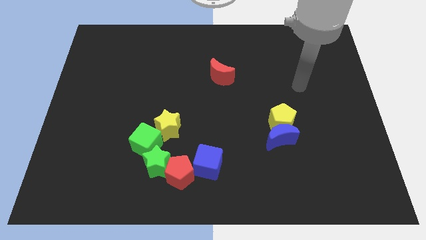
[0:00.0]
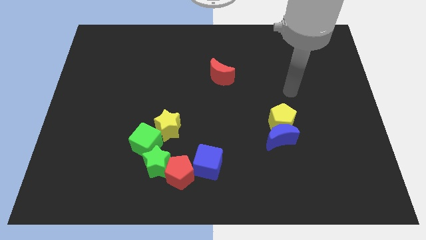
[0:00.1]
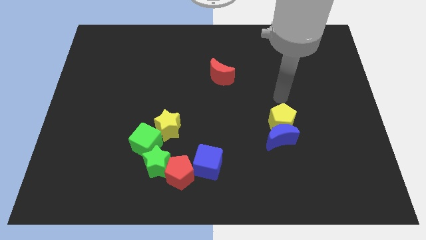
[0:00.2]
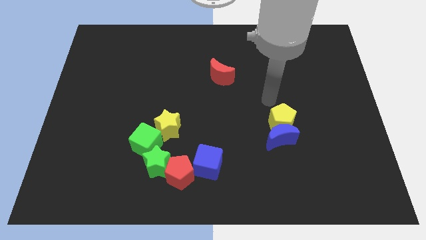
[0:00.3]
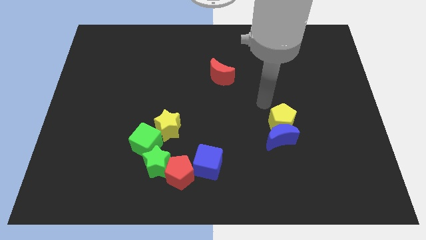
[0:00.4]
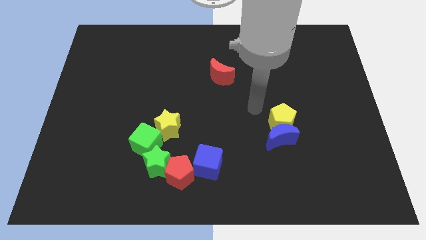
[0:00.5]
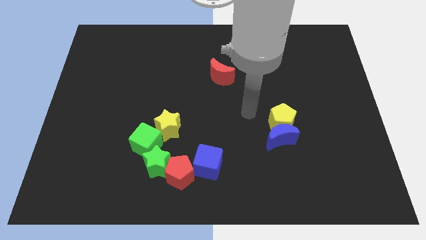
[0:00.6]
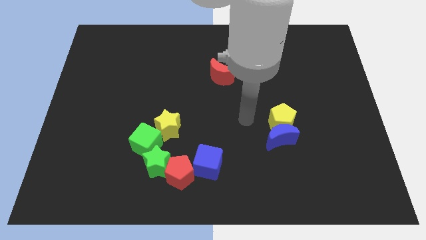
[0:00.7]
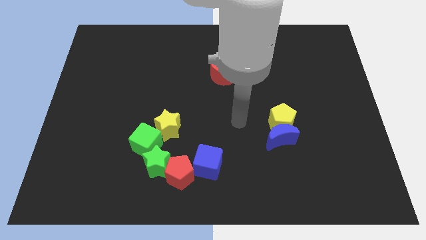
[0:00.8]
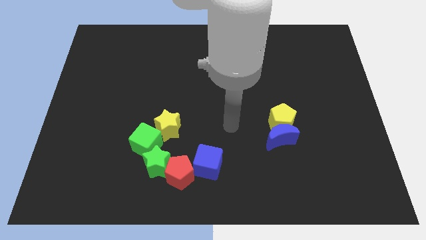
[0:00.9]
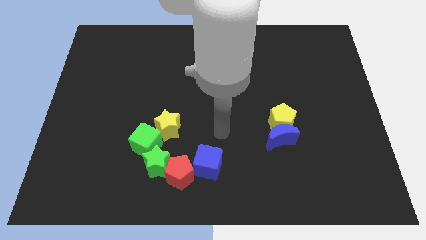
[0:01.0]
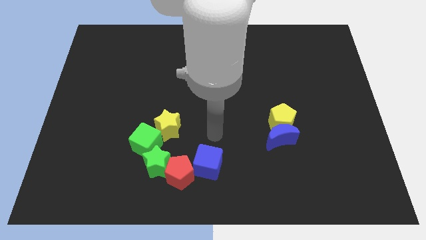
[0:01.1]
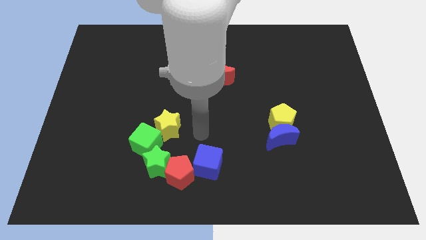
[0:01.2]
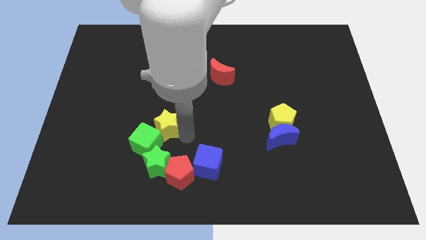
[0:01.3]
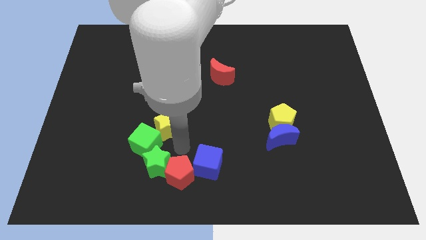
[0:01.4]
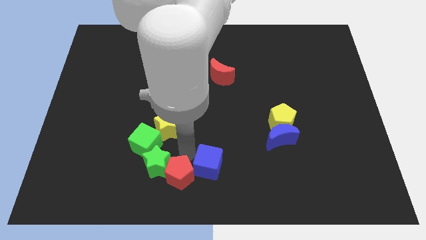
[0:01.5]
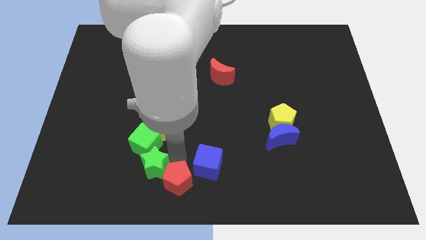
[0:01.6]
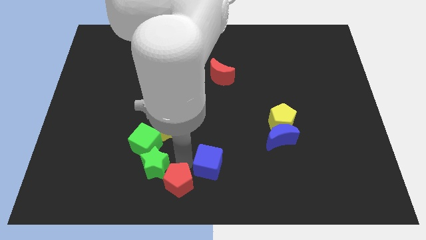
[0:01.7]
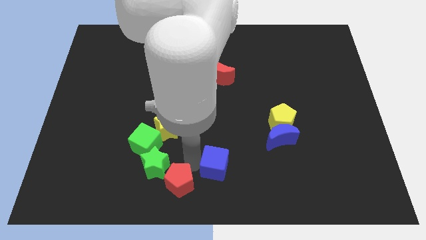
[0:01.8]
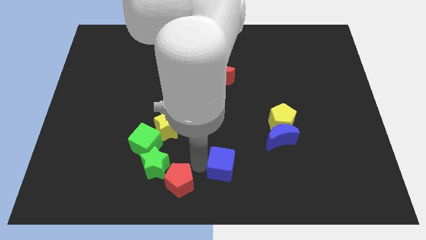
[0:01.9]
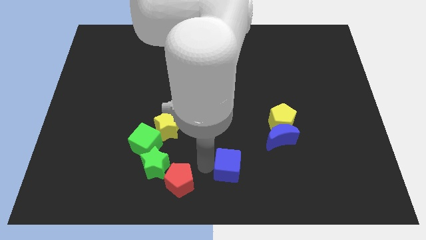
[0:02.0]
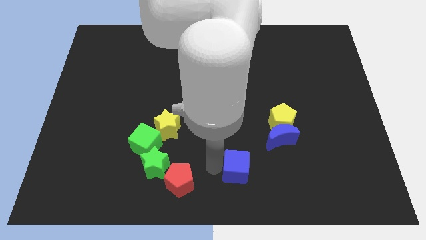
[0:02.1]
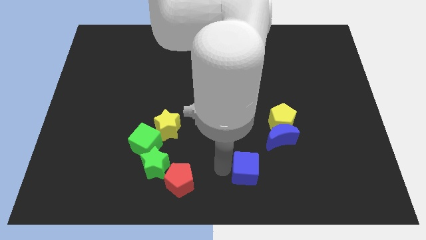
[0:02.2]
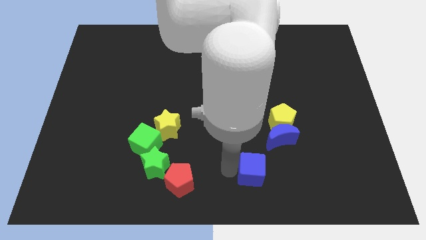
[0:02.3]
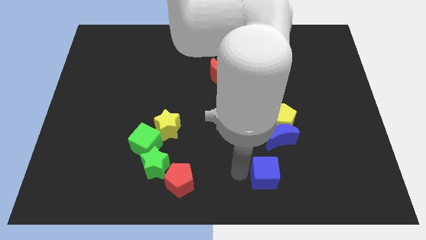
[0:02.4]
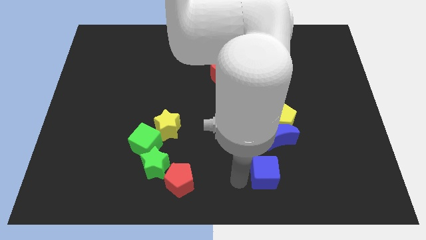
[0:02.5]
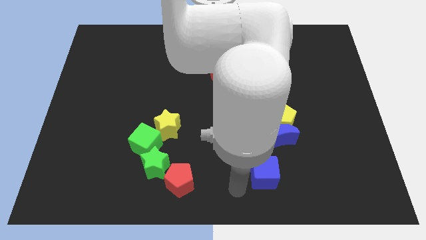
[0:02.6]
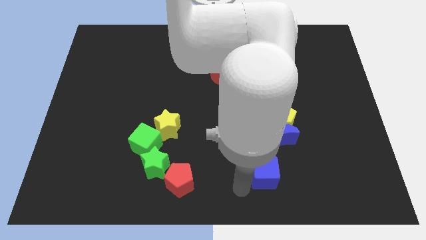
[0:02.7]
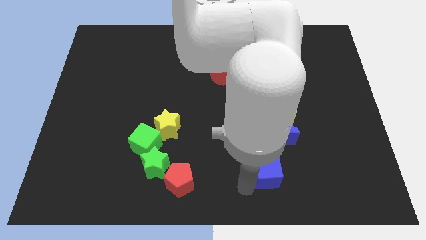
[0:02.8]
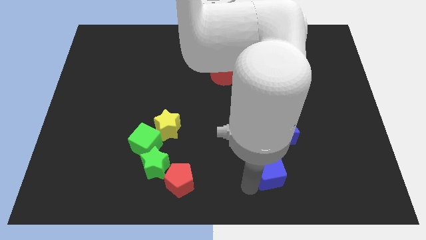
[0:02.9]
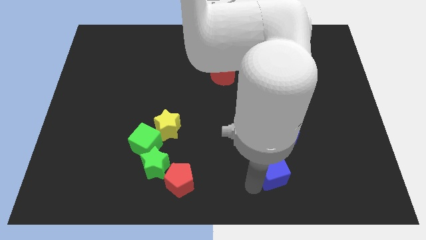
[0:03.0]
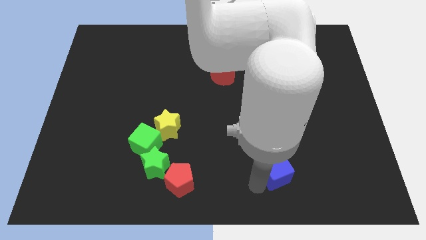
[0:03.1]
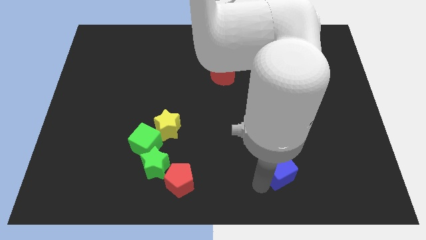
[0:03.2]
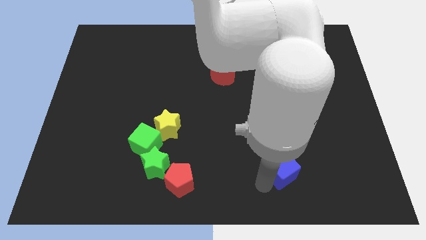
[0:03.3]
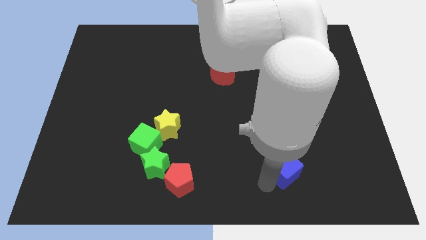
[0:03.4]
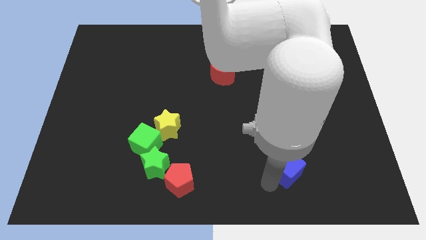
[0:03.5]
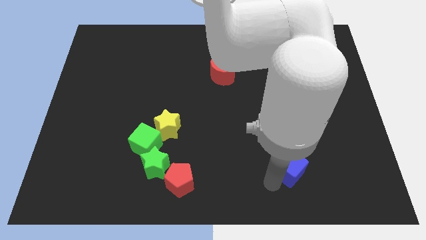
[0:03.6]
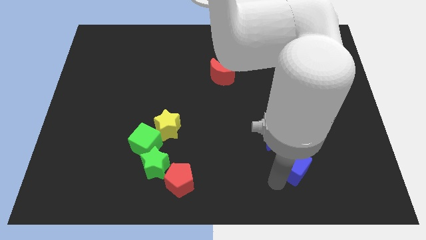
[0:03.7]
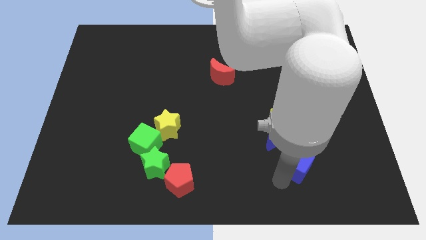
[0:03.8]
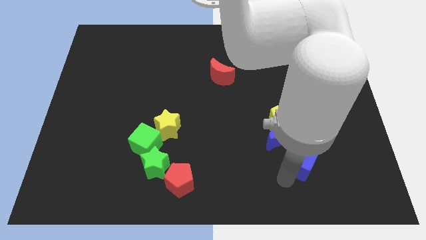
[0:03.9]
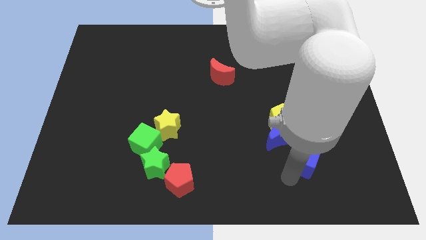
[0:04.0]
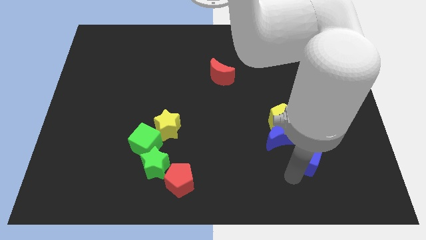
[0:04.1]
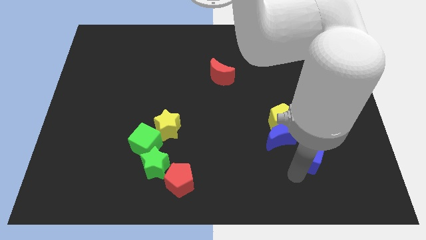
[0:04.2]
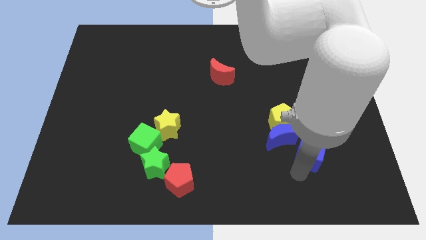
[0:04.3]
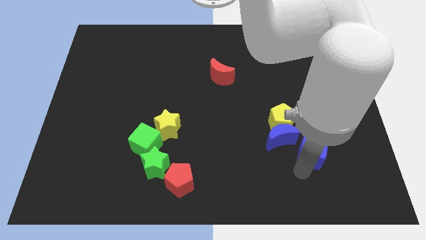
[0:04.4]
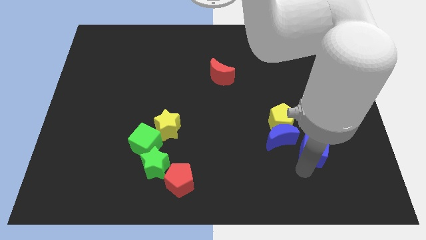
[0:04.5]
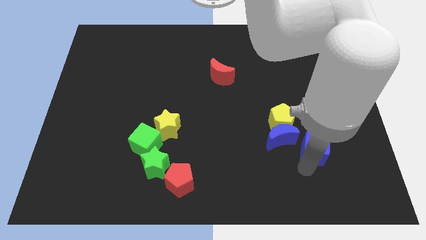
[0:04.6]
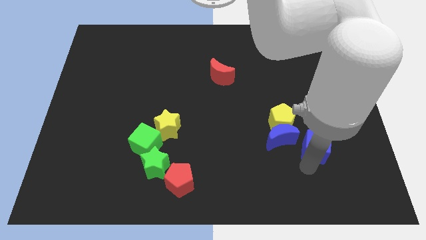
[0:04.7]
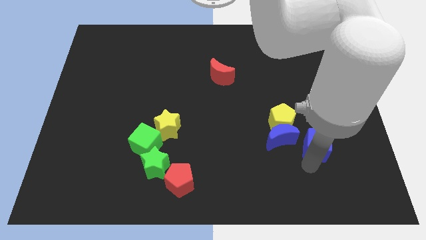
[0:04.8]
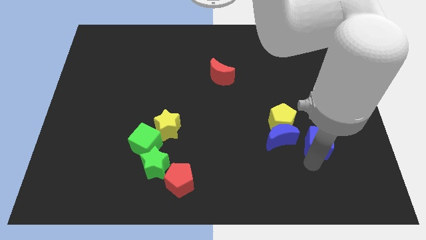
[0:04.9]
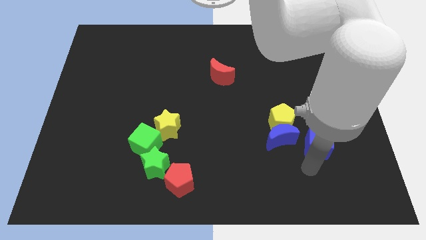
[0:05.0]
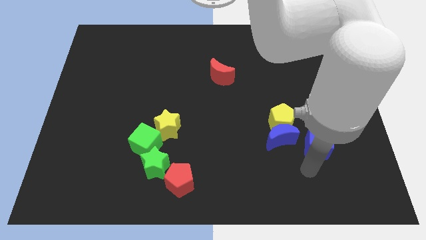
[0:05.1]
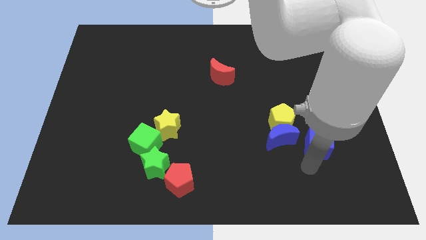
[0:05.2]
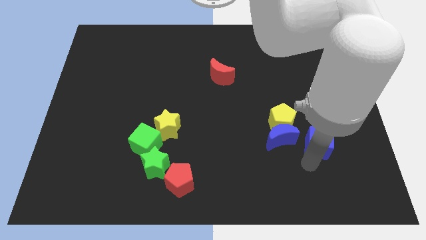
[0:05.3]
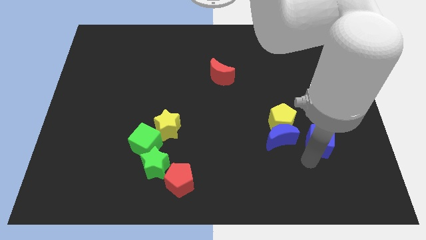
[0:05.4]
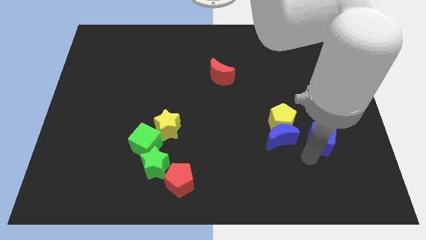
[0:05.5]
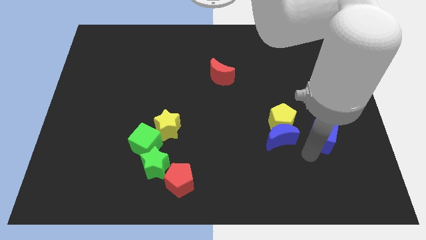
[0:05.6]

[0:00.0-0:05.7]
put the blue cube right of the yellow pentagon

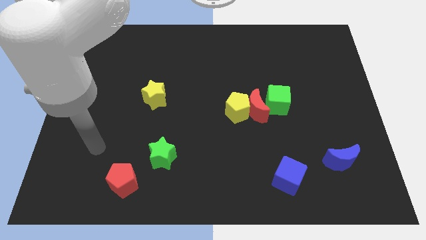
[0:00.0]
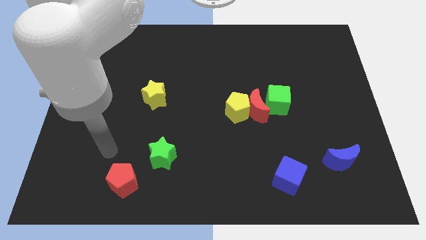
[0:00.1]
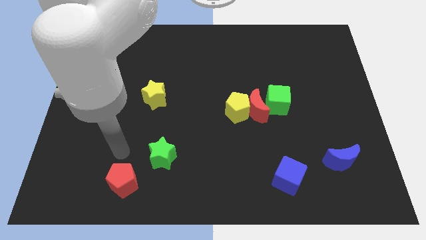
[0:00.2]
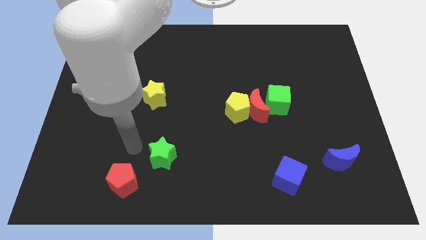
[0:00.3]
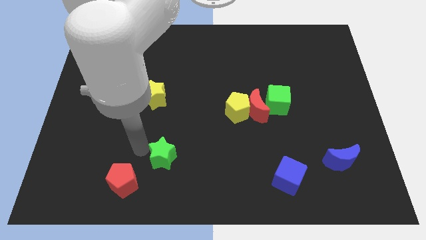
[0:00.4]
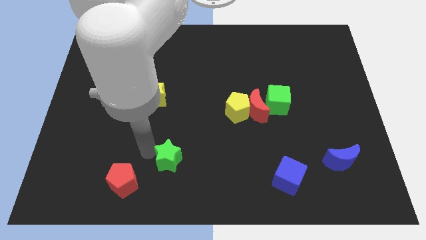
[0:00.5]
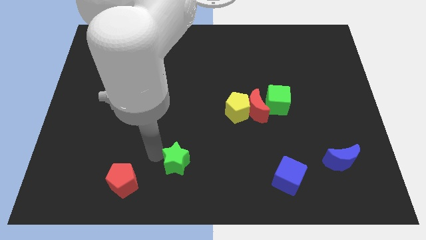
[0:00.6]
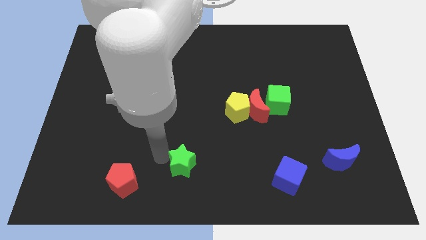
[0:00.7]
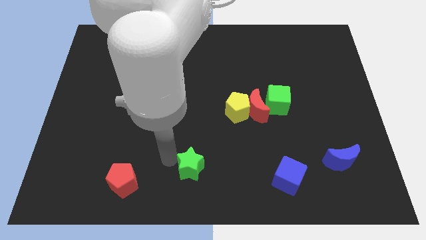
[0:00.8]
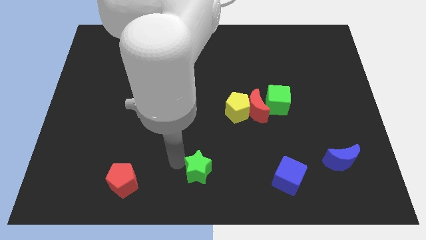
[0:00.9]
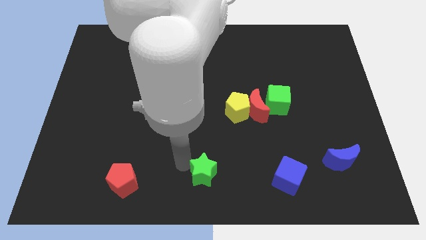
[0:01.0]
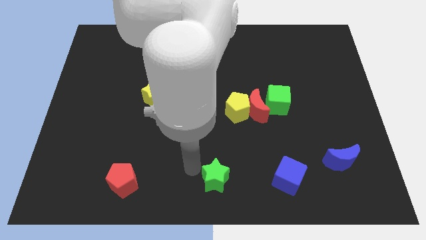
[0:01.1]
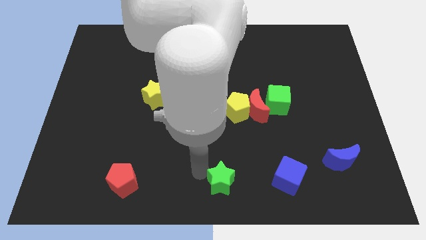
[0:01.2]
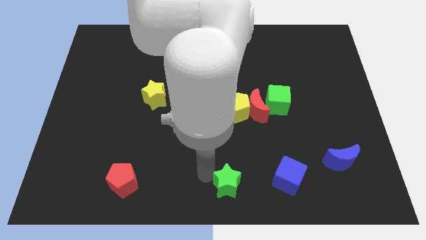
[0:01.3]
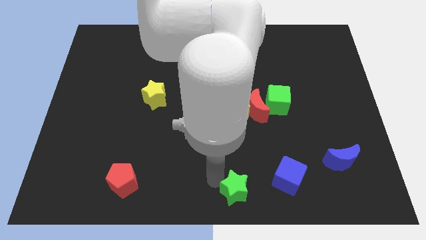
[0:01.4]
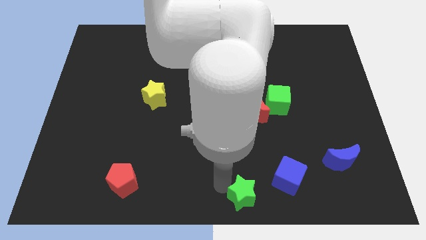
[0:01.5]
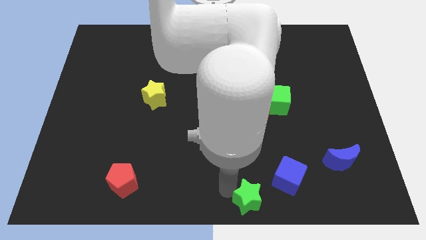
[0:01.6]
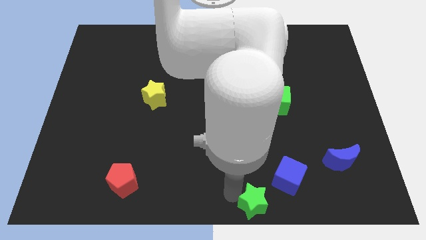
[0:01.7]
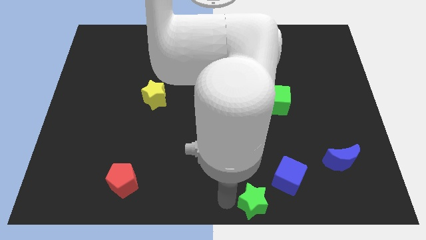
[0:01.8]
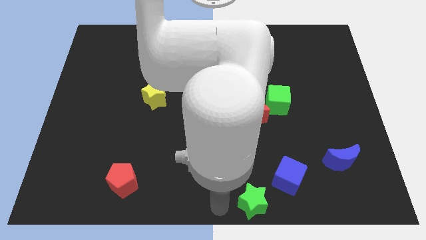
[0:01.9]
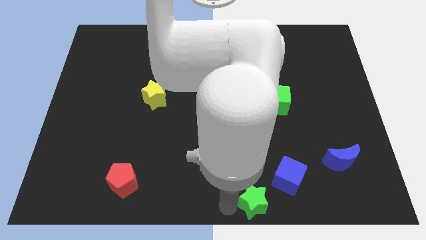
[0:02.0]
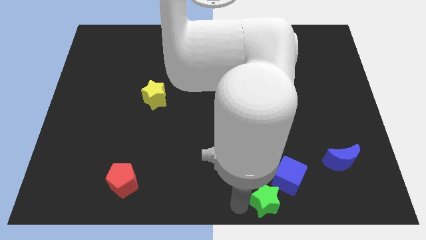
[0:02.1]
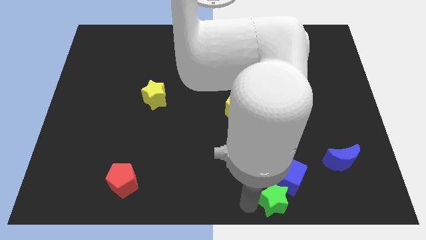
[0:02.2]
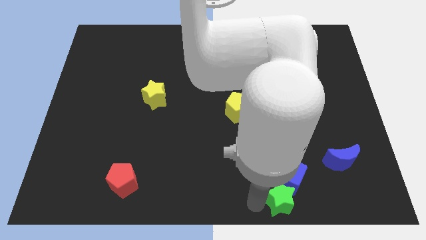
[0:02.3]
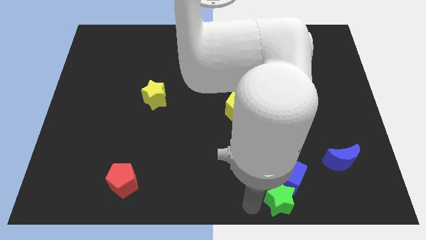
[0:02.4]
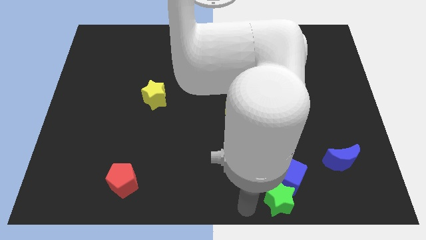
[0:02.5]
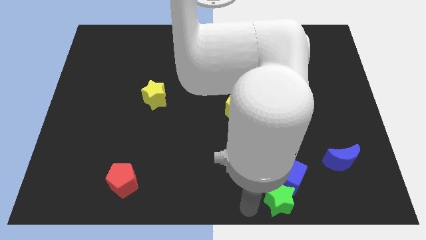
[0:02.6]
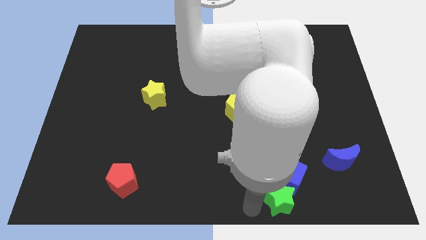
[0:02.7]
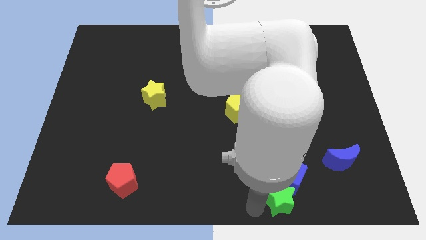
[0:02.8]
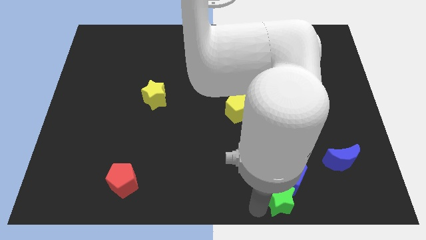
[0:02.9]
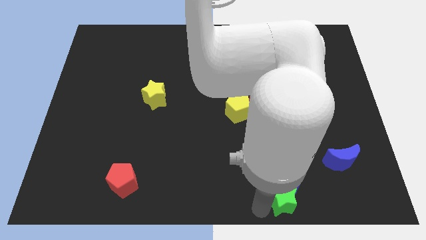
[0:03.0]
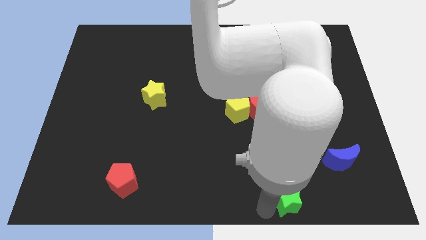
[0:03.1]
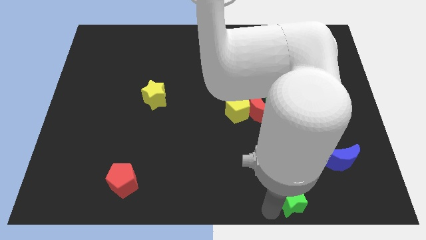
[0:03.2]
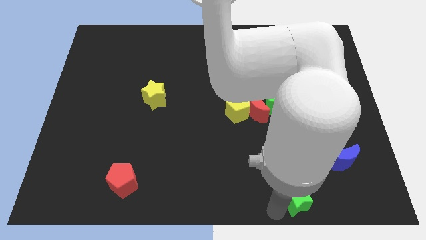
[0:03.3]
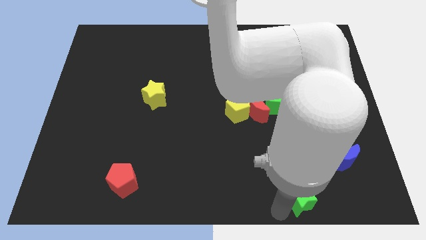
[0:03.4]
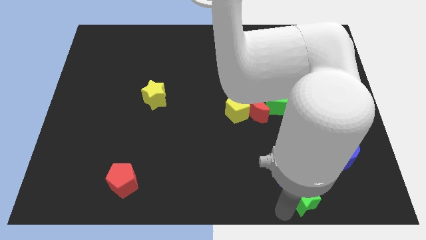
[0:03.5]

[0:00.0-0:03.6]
slide the green star to the bottom left side of the blue moon
